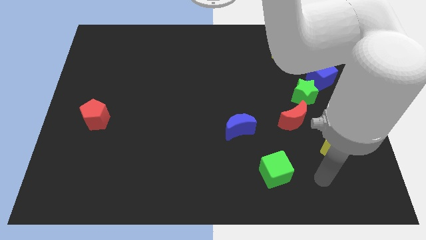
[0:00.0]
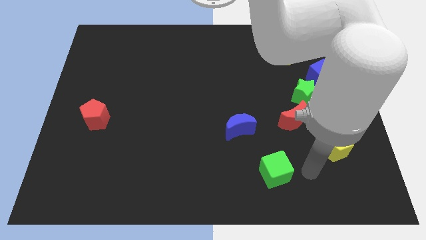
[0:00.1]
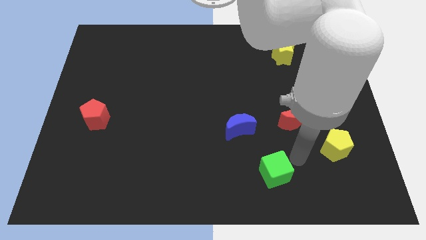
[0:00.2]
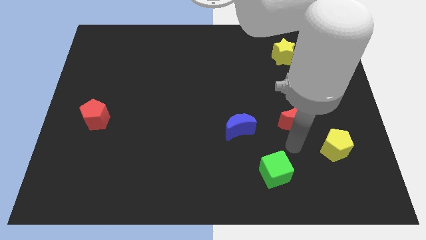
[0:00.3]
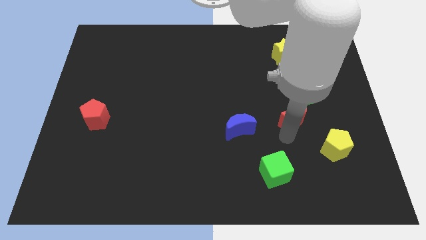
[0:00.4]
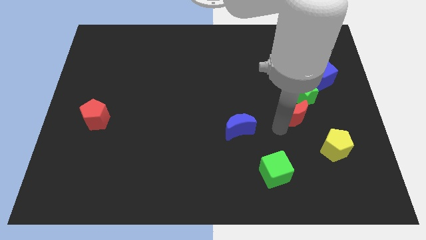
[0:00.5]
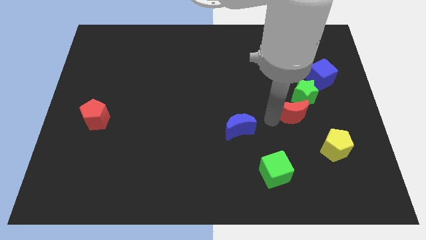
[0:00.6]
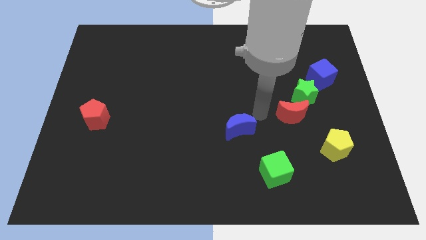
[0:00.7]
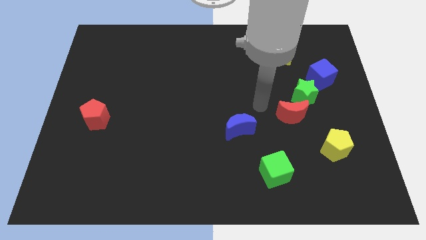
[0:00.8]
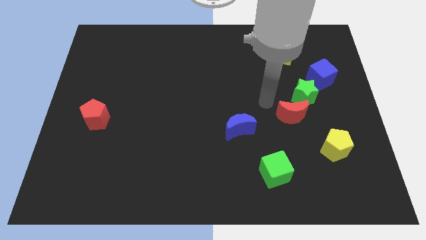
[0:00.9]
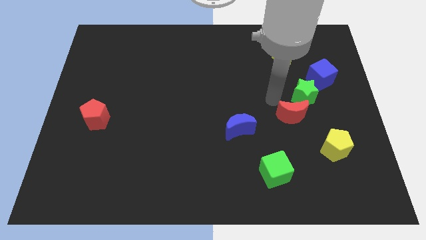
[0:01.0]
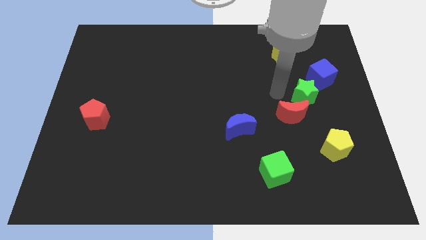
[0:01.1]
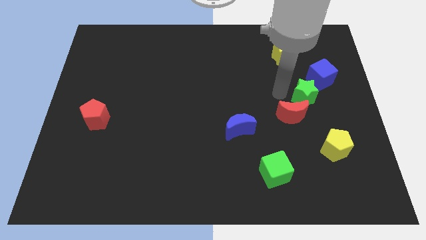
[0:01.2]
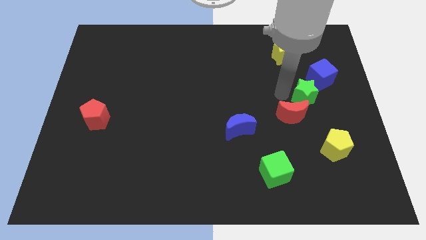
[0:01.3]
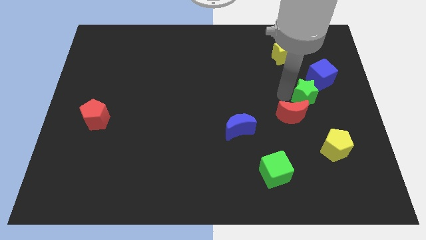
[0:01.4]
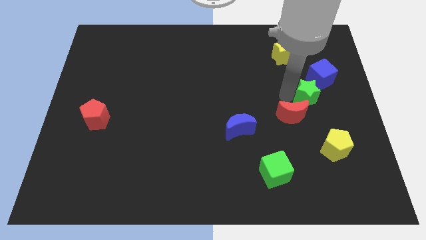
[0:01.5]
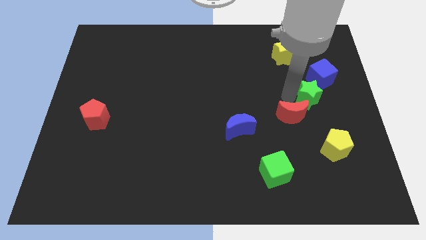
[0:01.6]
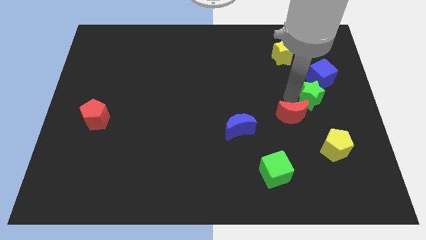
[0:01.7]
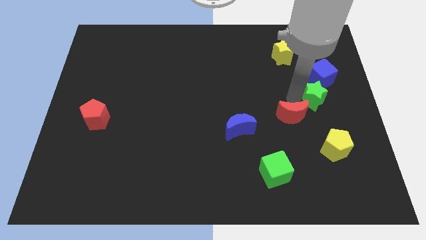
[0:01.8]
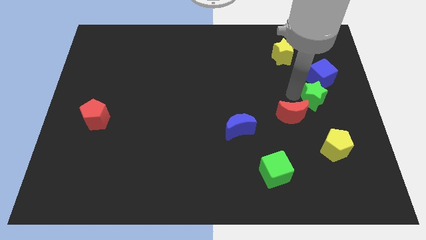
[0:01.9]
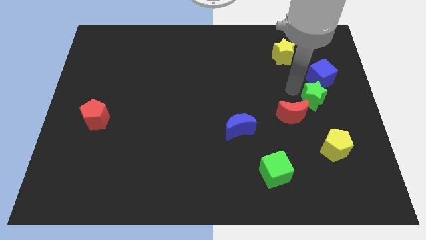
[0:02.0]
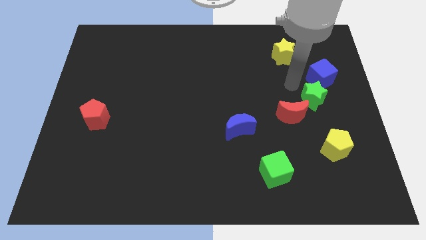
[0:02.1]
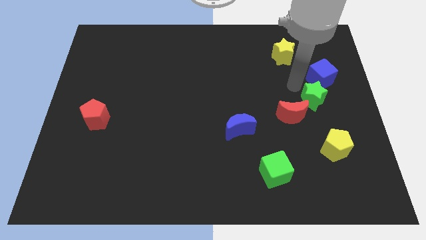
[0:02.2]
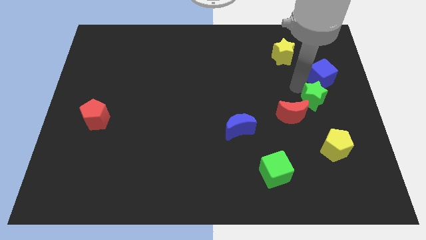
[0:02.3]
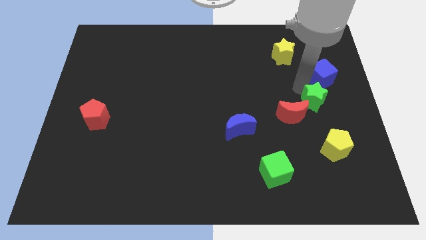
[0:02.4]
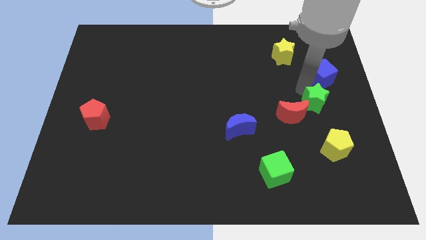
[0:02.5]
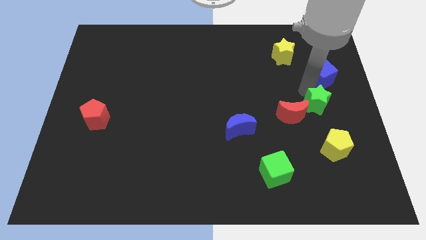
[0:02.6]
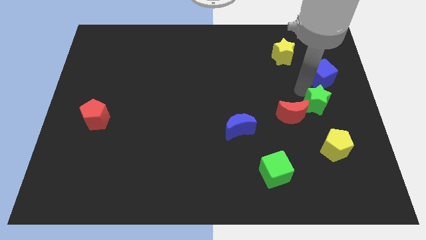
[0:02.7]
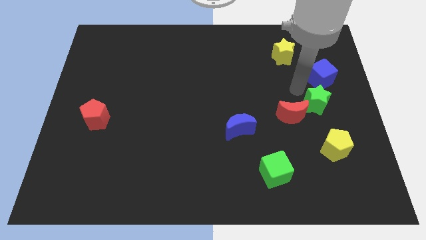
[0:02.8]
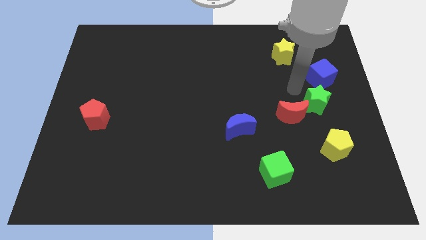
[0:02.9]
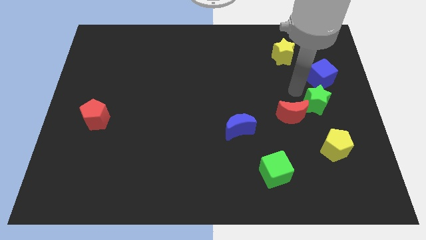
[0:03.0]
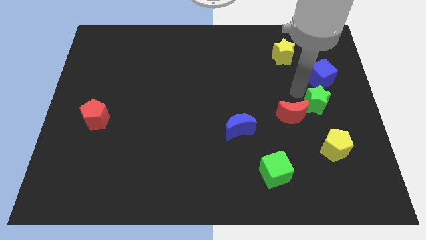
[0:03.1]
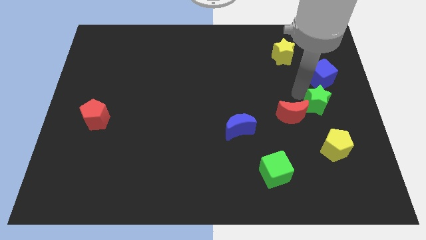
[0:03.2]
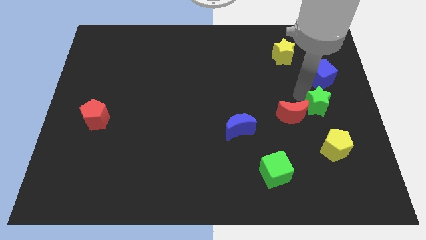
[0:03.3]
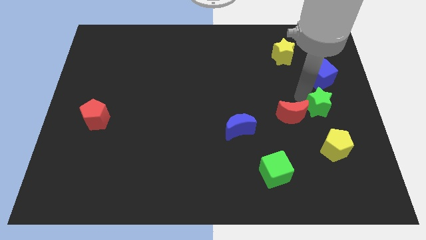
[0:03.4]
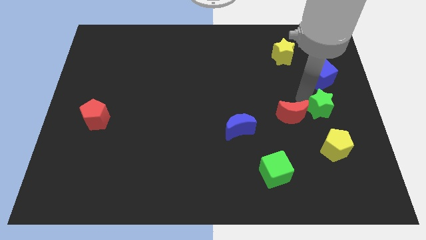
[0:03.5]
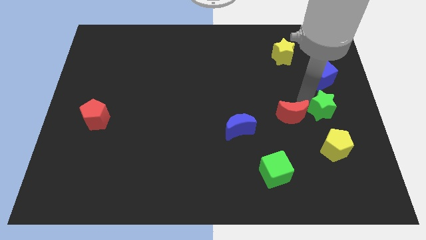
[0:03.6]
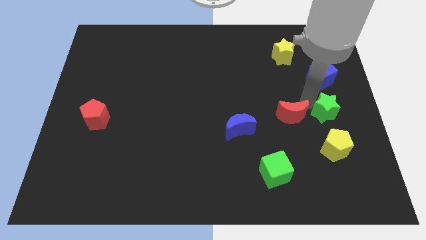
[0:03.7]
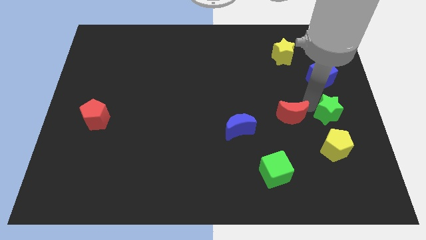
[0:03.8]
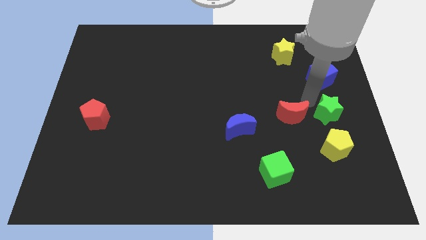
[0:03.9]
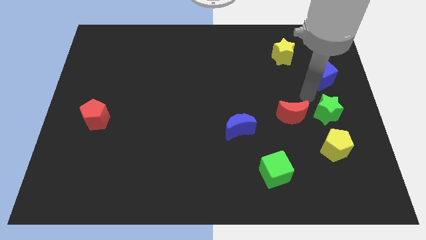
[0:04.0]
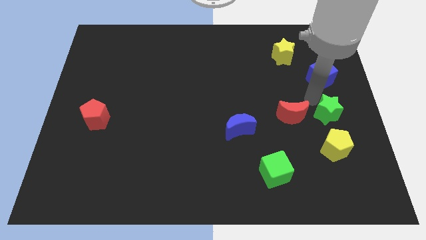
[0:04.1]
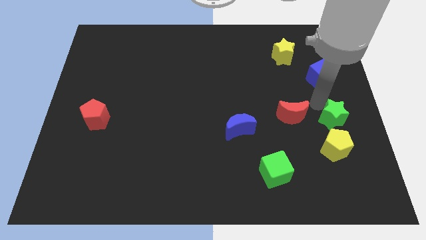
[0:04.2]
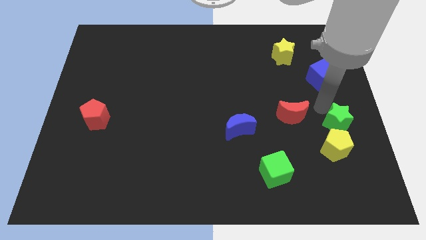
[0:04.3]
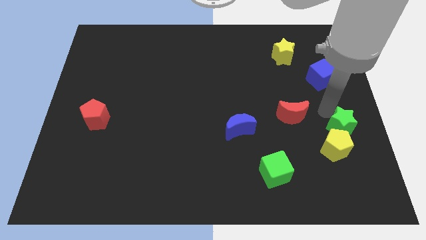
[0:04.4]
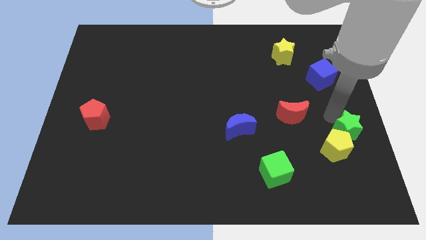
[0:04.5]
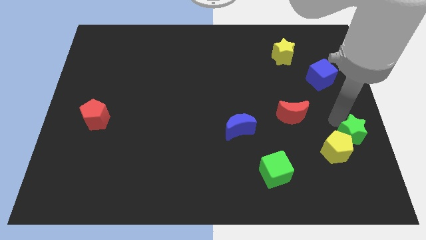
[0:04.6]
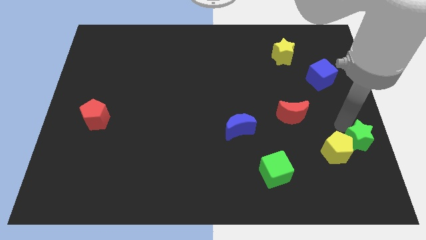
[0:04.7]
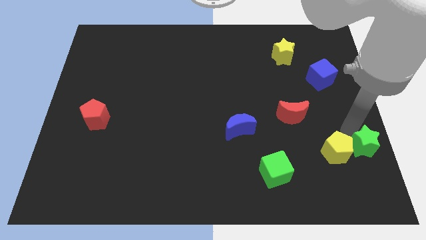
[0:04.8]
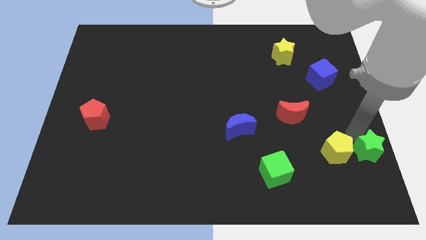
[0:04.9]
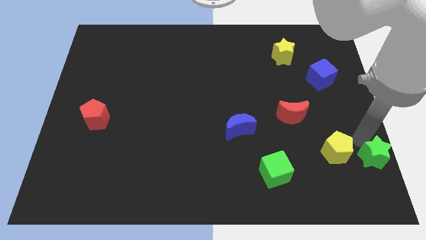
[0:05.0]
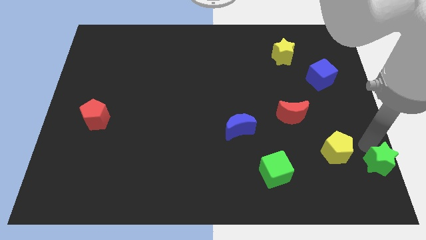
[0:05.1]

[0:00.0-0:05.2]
push the green star to the bottom right corner

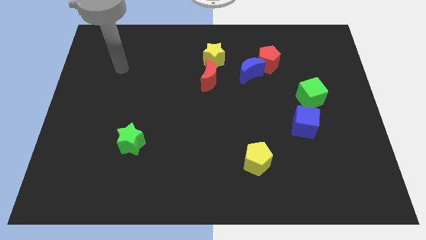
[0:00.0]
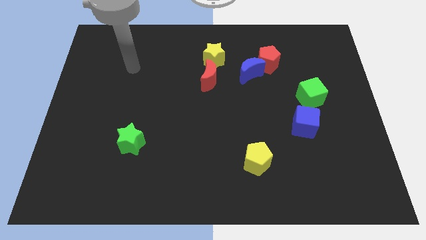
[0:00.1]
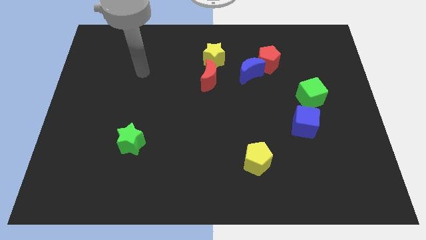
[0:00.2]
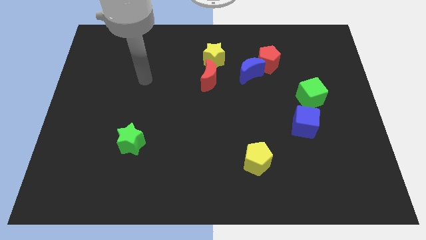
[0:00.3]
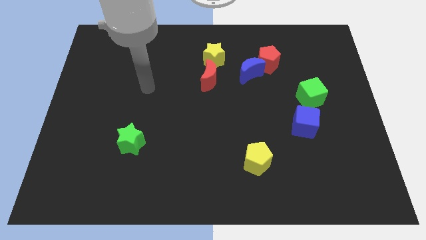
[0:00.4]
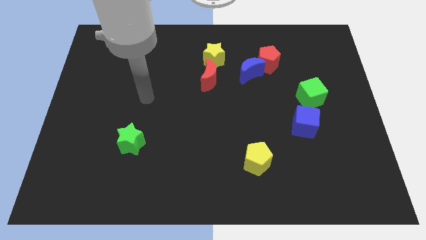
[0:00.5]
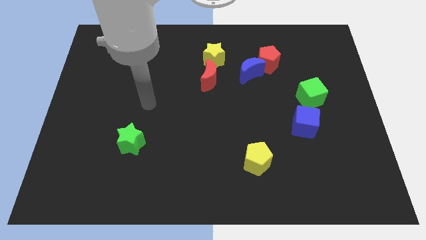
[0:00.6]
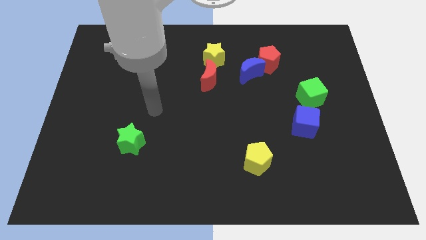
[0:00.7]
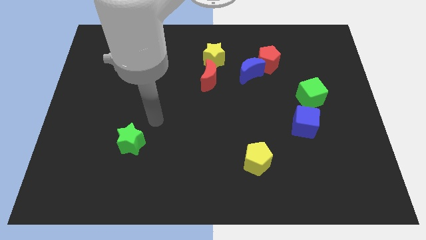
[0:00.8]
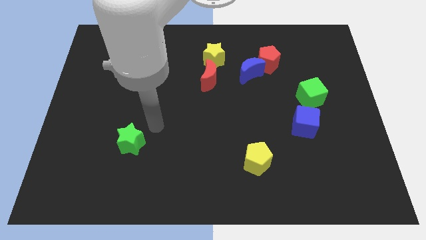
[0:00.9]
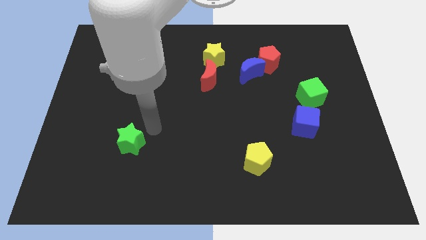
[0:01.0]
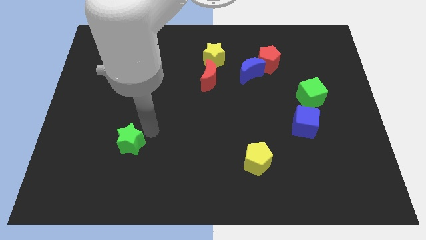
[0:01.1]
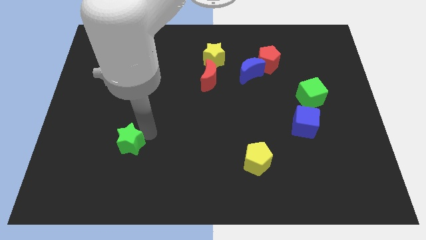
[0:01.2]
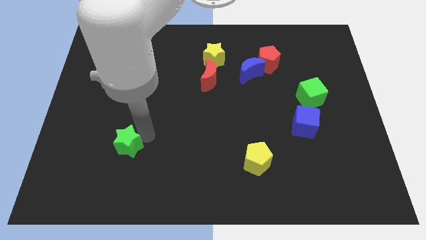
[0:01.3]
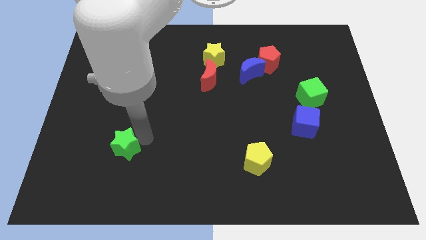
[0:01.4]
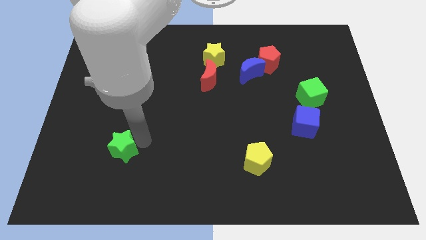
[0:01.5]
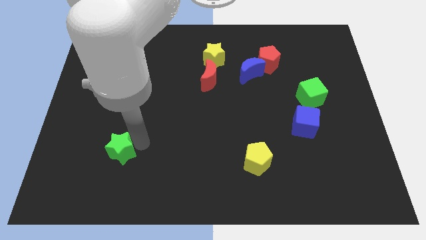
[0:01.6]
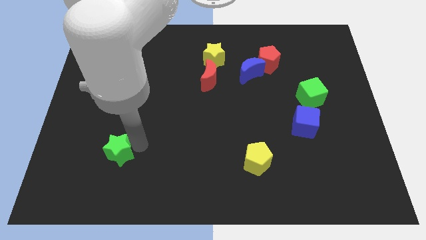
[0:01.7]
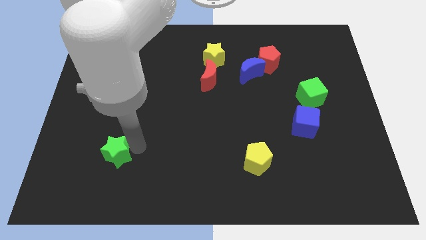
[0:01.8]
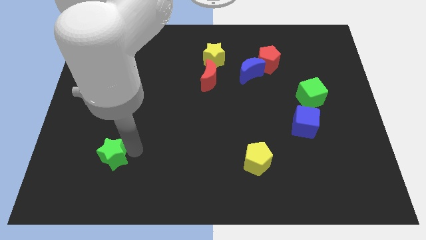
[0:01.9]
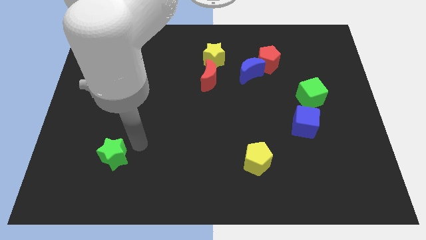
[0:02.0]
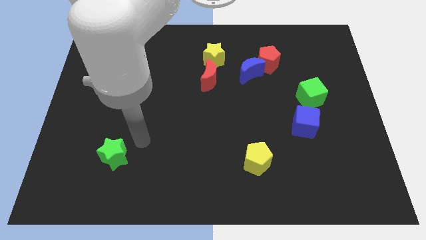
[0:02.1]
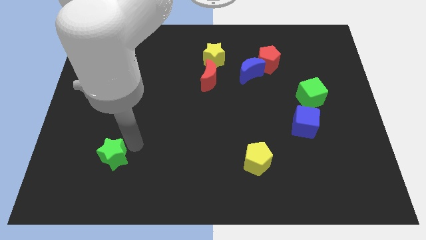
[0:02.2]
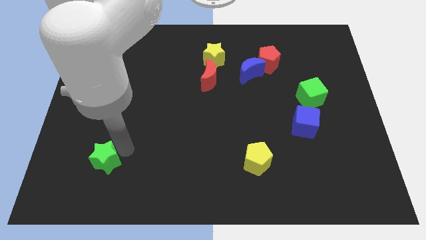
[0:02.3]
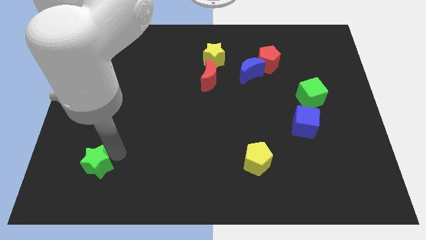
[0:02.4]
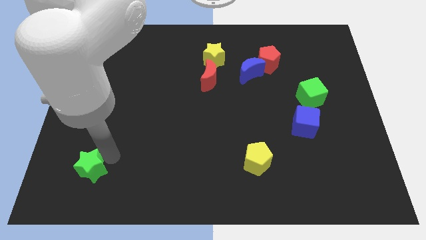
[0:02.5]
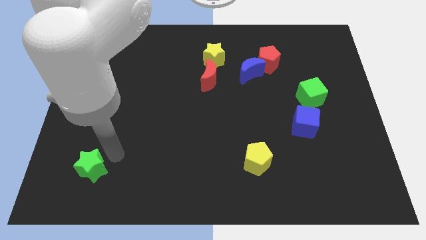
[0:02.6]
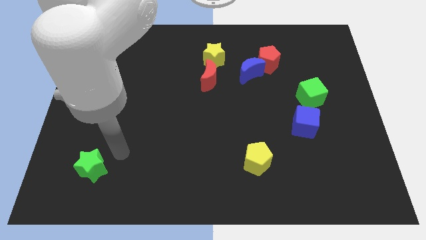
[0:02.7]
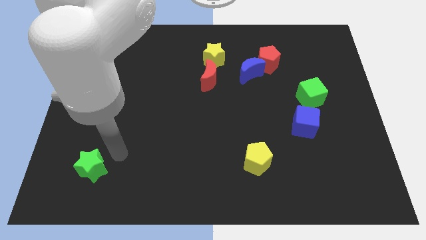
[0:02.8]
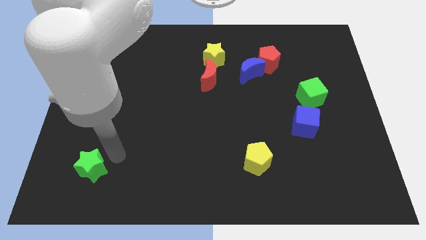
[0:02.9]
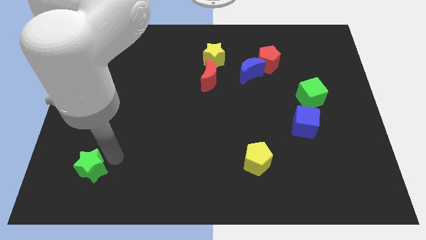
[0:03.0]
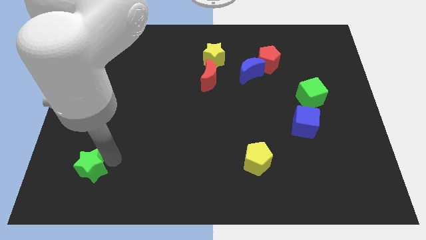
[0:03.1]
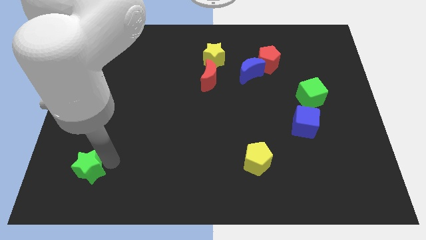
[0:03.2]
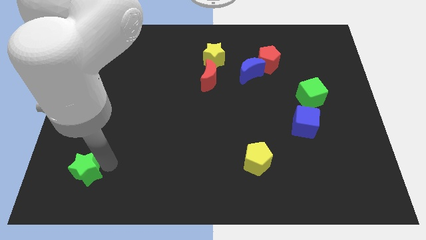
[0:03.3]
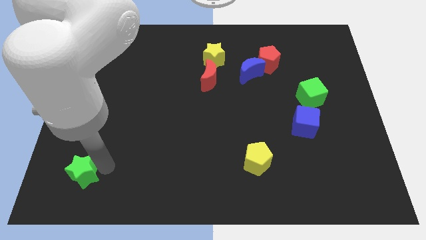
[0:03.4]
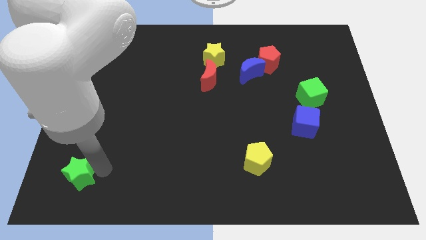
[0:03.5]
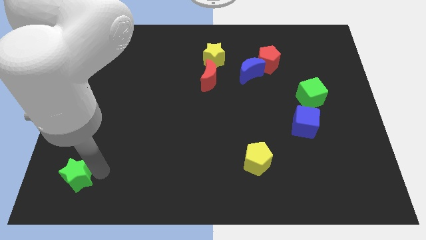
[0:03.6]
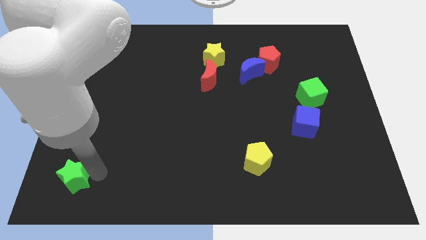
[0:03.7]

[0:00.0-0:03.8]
put the green star to the lower left corner
